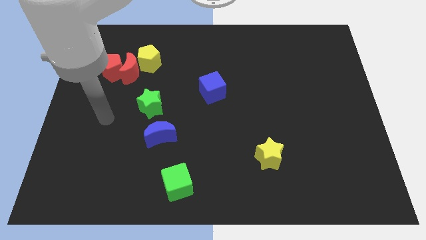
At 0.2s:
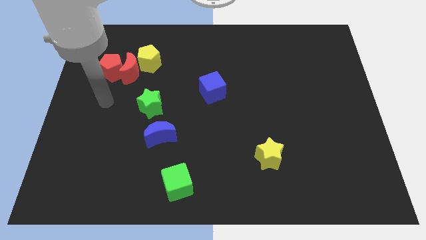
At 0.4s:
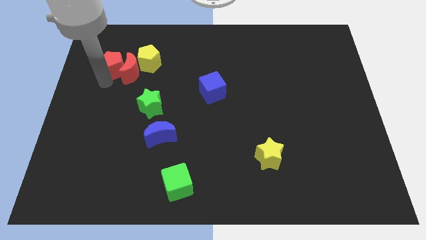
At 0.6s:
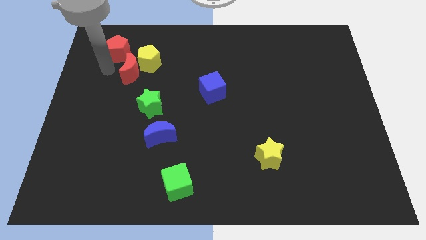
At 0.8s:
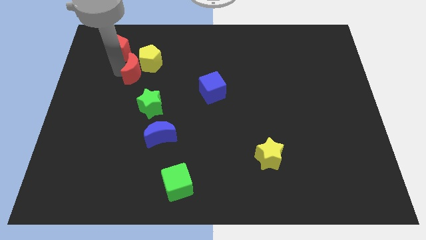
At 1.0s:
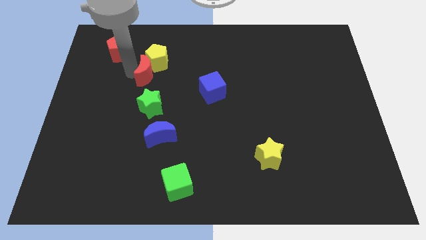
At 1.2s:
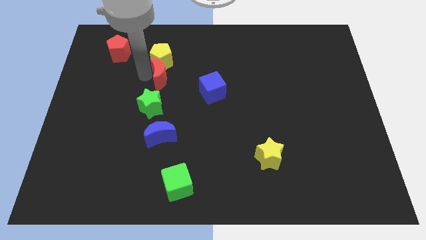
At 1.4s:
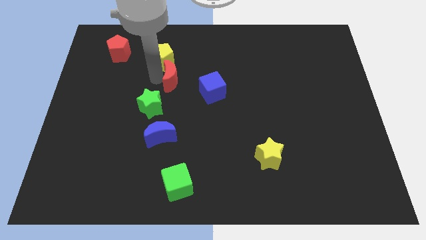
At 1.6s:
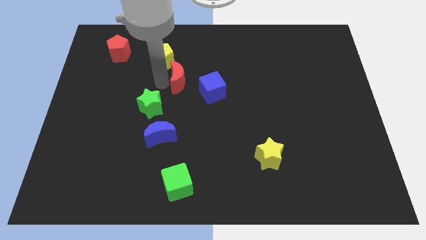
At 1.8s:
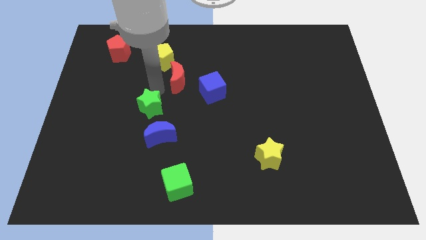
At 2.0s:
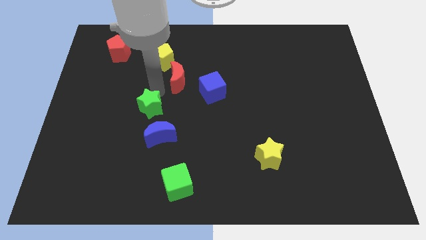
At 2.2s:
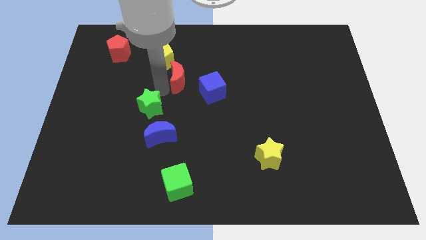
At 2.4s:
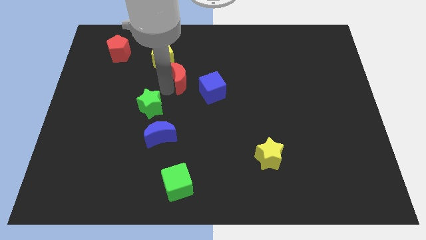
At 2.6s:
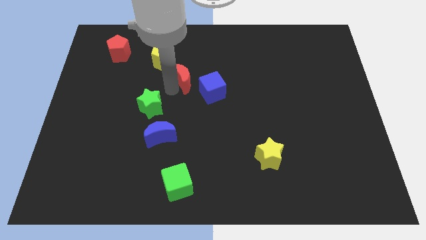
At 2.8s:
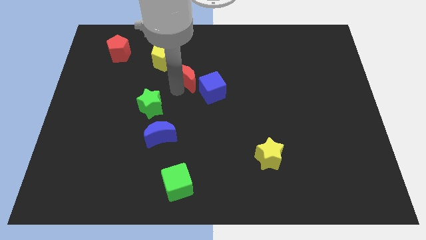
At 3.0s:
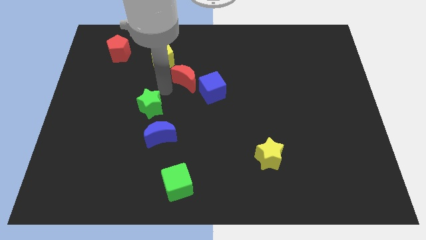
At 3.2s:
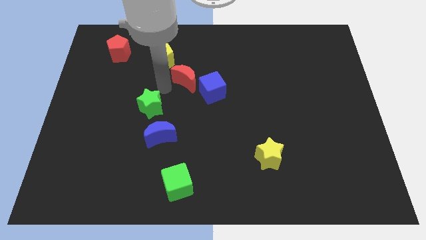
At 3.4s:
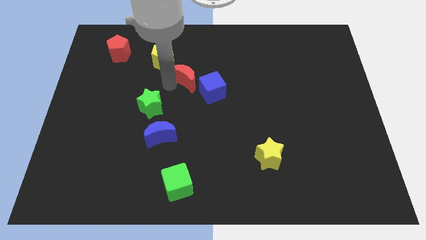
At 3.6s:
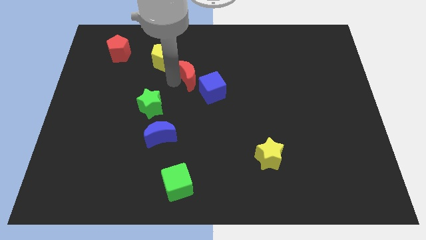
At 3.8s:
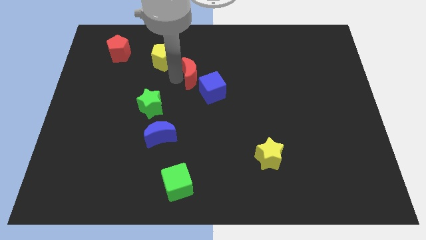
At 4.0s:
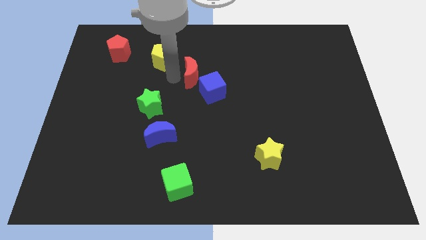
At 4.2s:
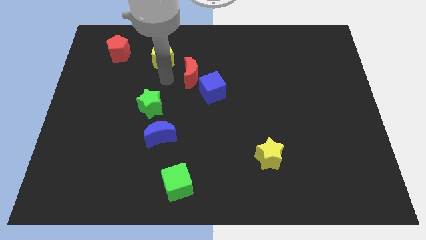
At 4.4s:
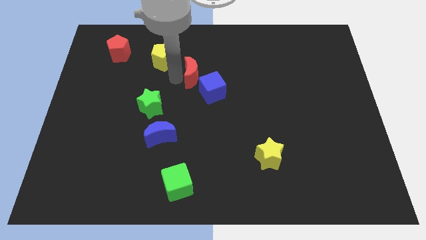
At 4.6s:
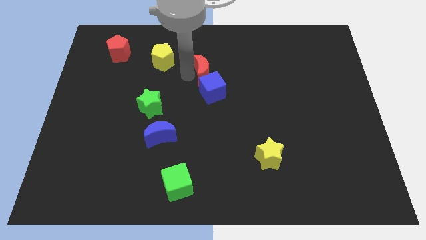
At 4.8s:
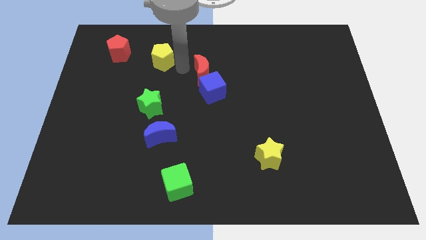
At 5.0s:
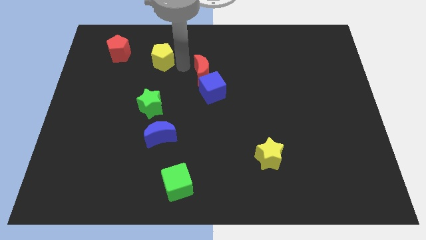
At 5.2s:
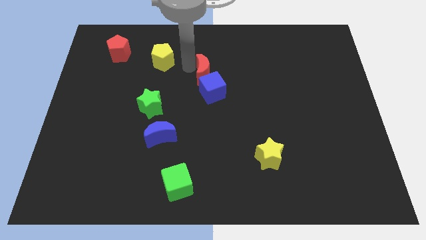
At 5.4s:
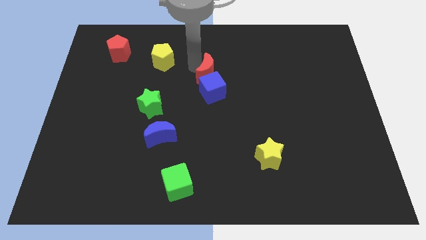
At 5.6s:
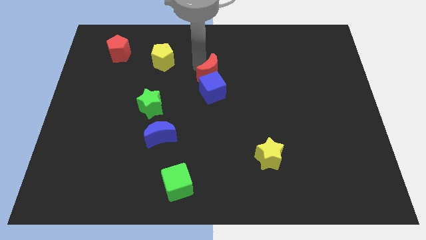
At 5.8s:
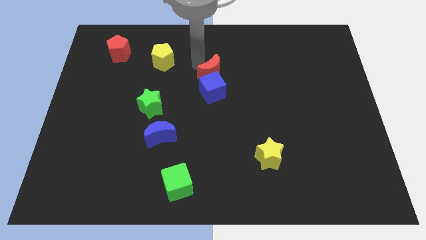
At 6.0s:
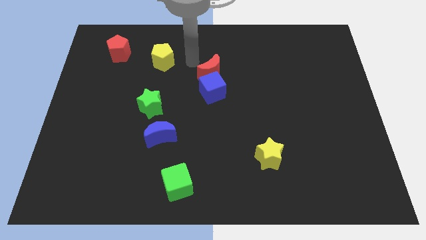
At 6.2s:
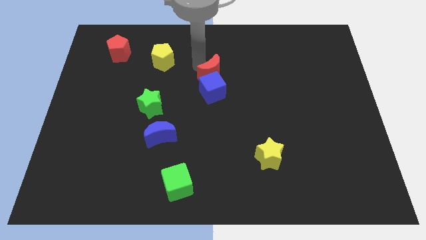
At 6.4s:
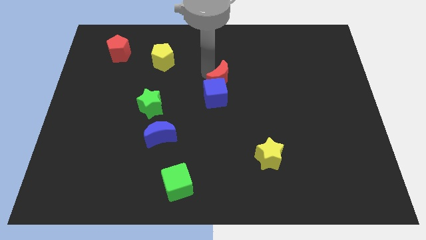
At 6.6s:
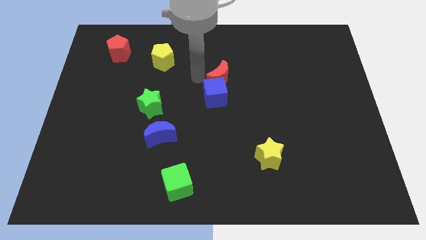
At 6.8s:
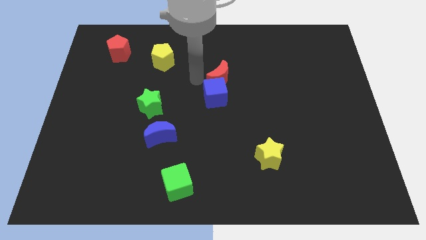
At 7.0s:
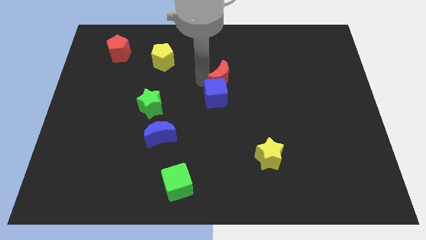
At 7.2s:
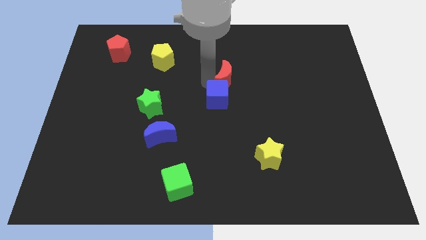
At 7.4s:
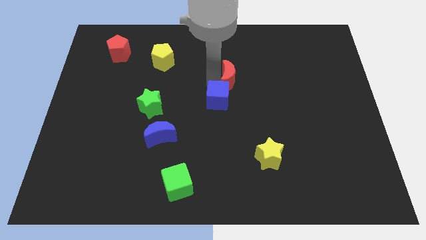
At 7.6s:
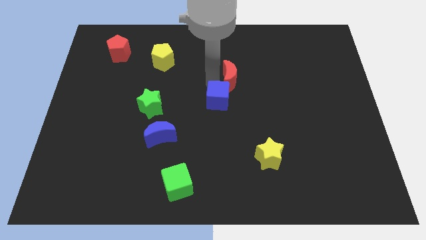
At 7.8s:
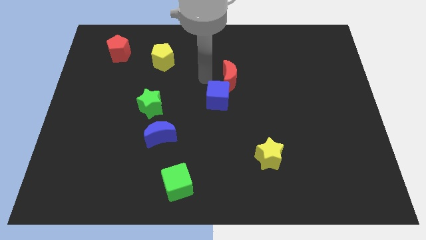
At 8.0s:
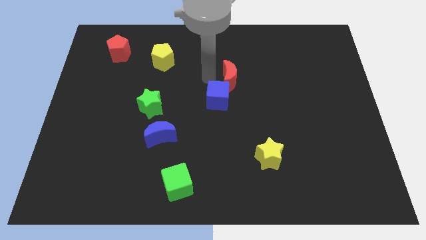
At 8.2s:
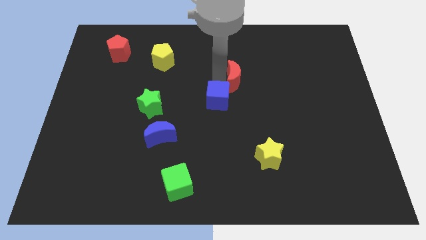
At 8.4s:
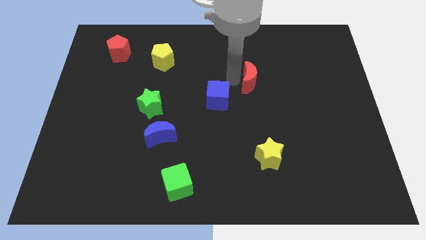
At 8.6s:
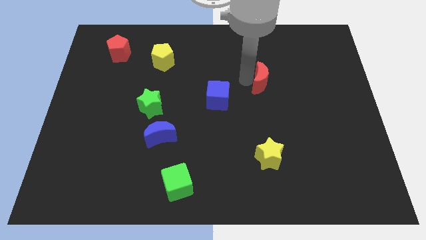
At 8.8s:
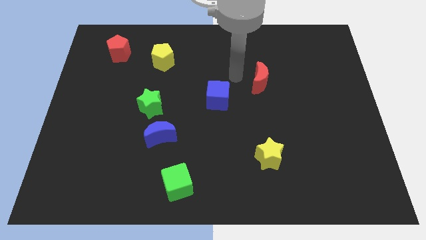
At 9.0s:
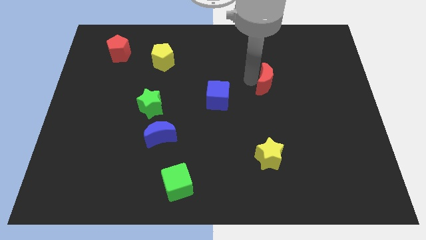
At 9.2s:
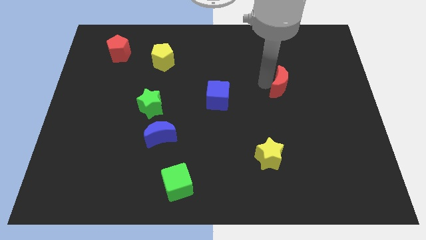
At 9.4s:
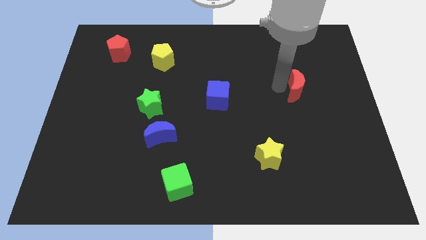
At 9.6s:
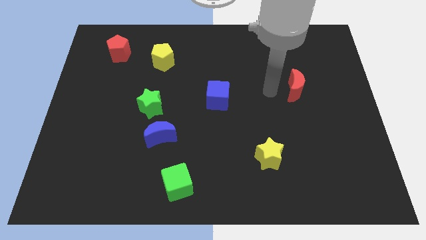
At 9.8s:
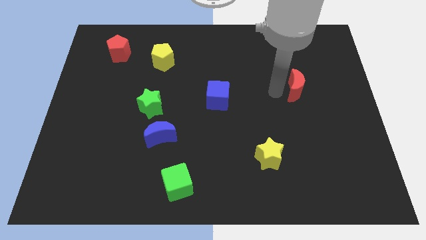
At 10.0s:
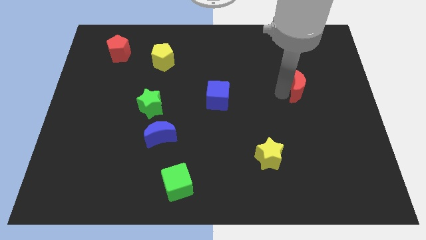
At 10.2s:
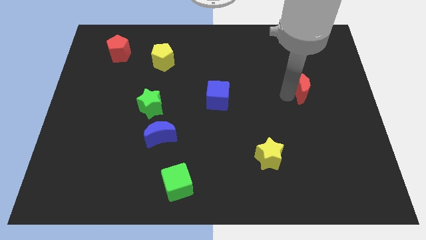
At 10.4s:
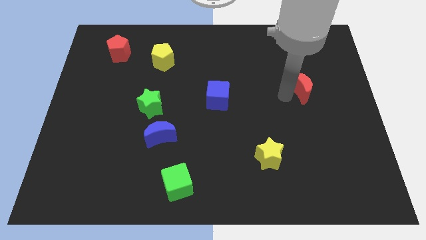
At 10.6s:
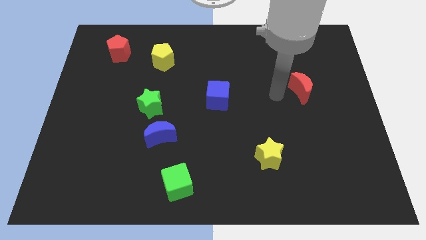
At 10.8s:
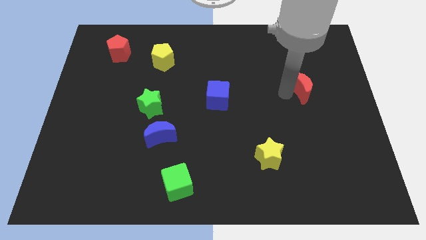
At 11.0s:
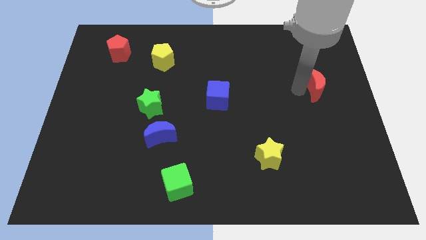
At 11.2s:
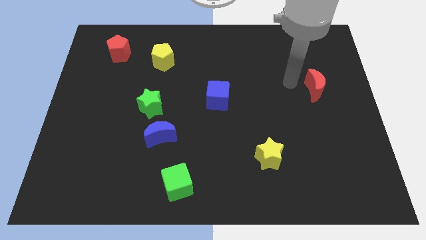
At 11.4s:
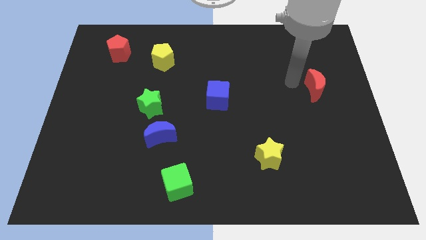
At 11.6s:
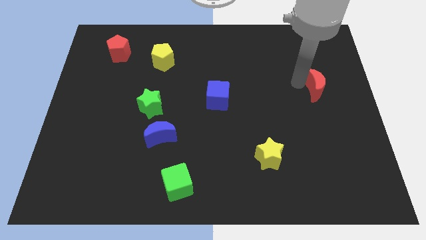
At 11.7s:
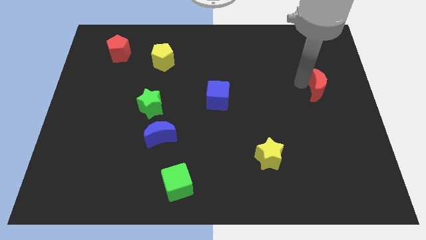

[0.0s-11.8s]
push the red moon to the center right
